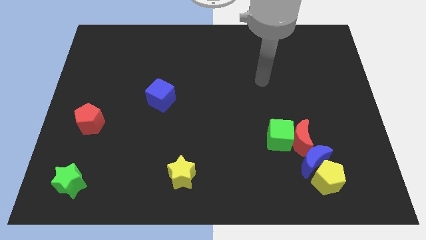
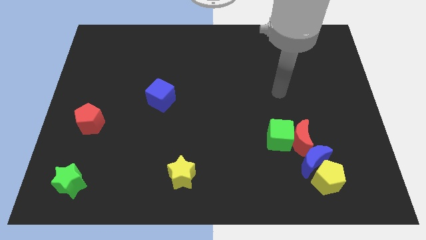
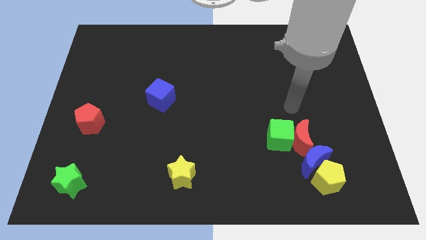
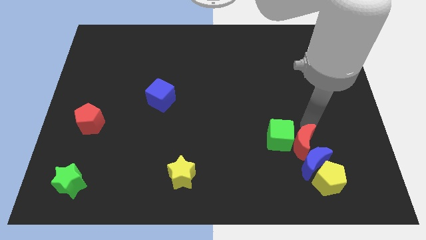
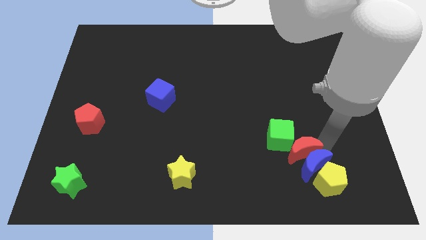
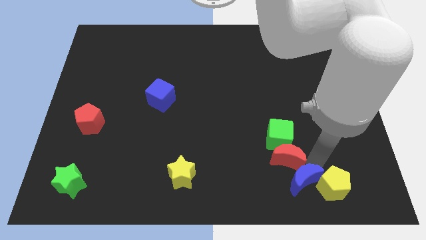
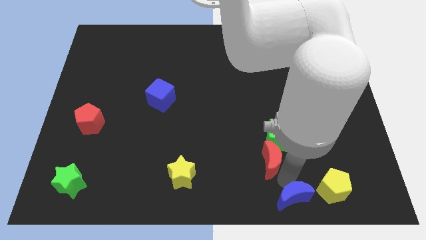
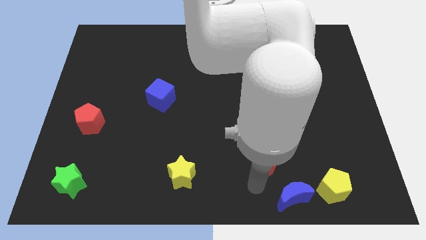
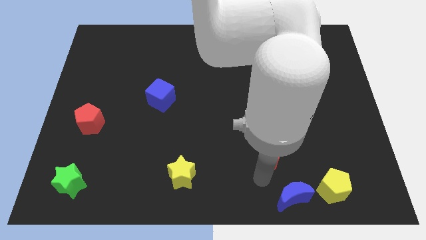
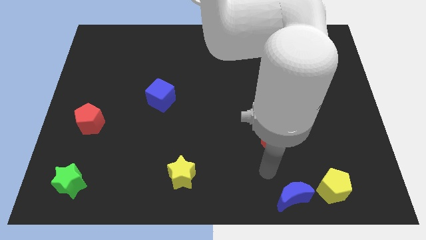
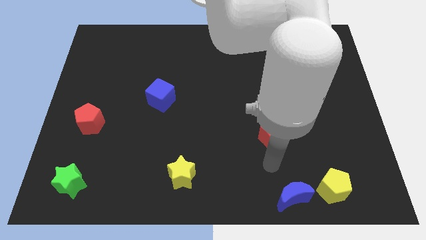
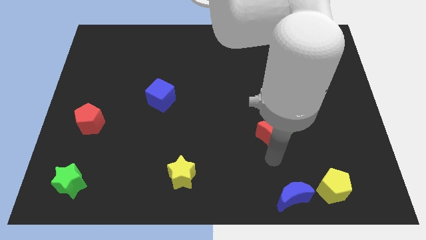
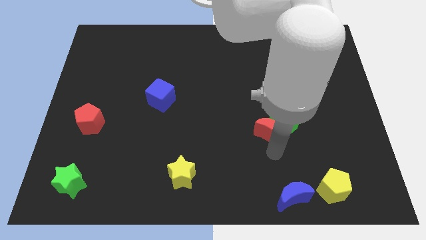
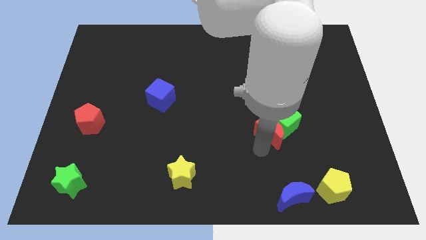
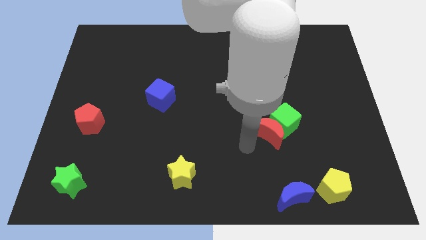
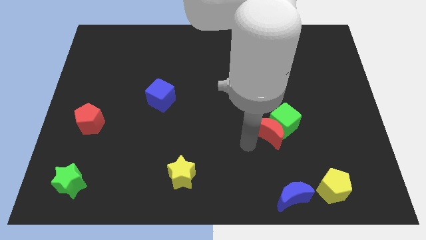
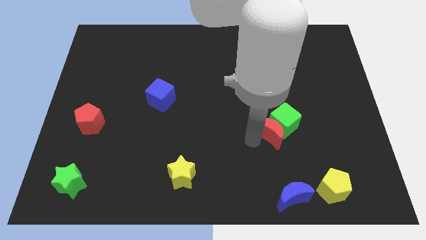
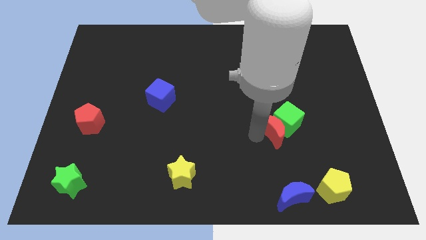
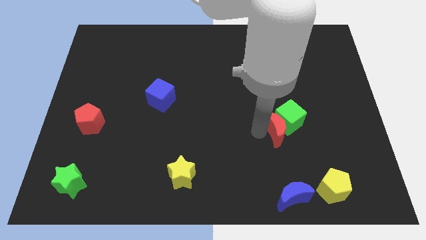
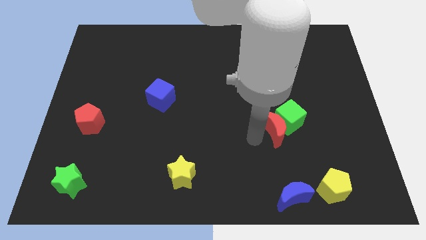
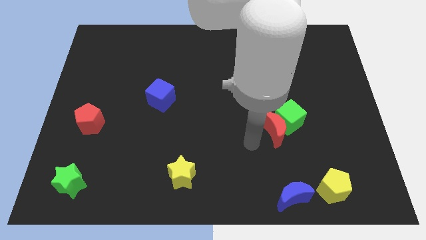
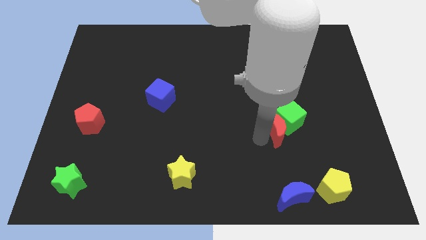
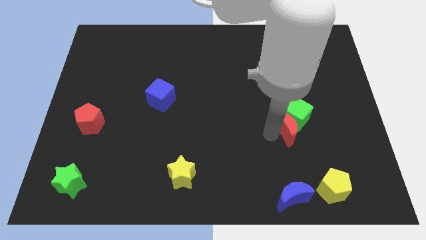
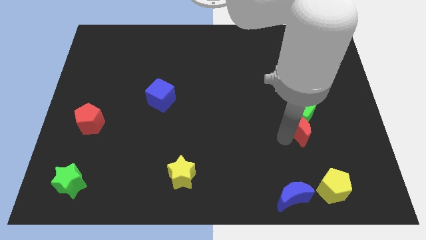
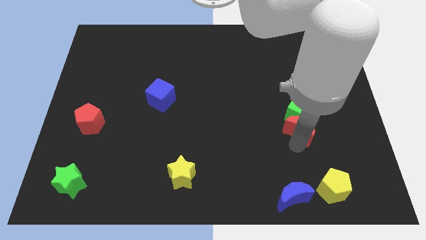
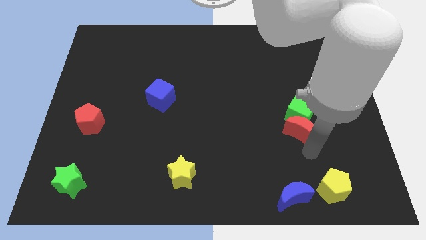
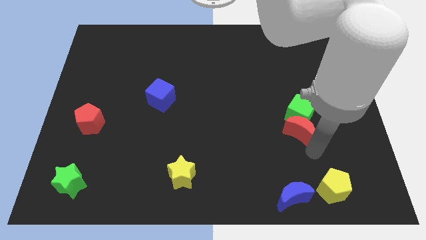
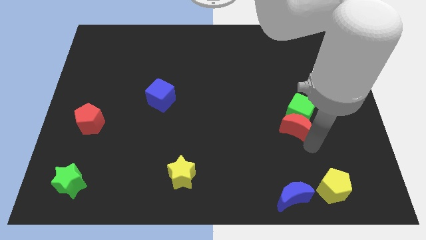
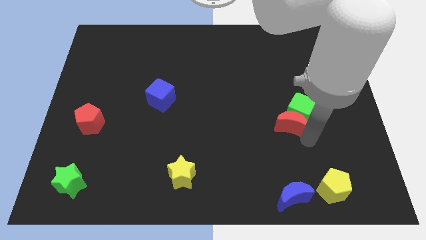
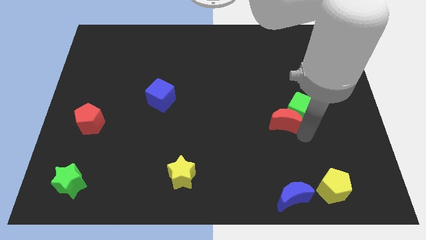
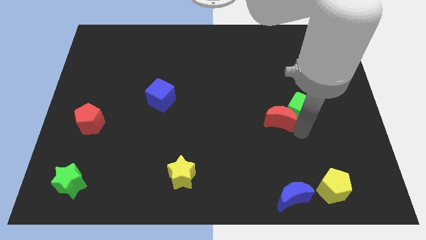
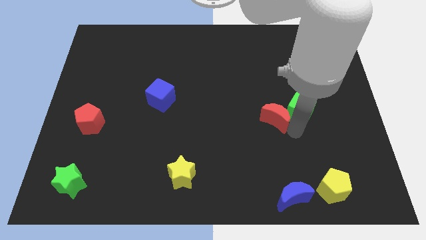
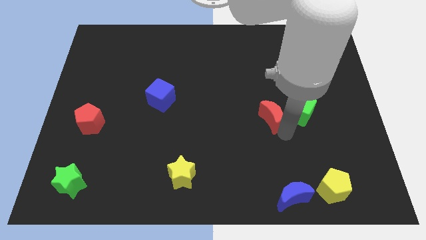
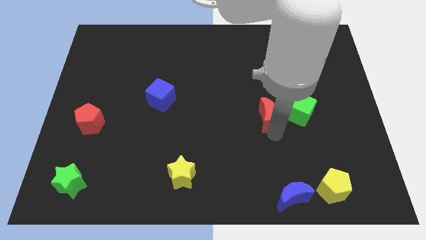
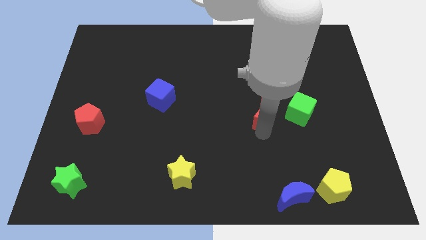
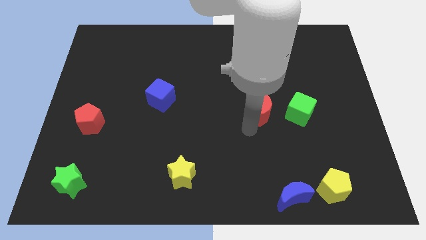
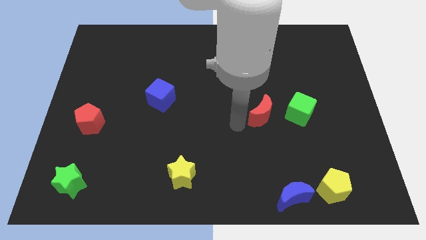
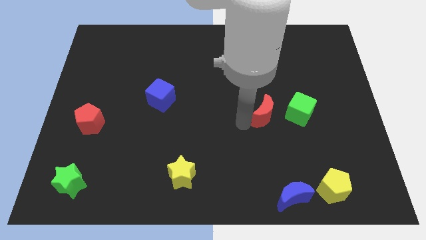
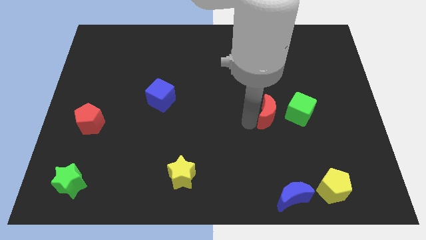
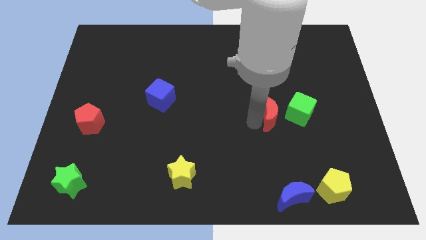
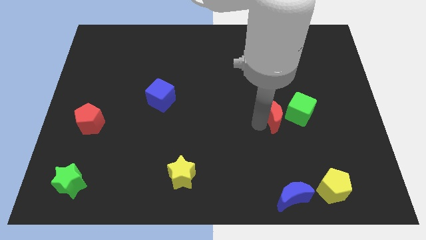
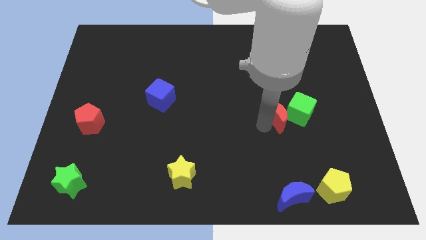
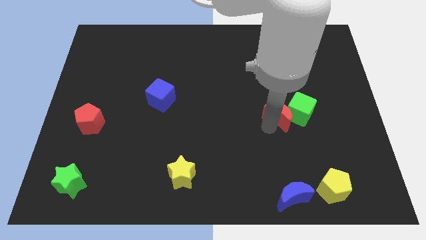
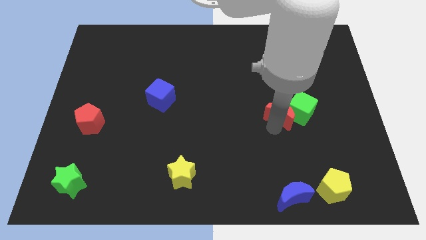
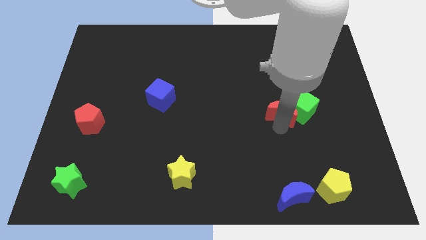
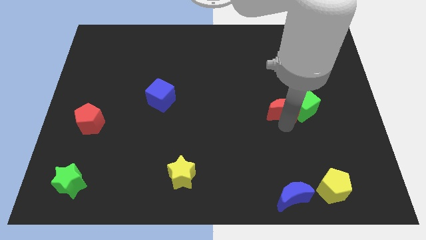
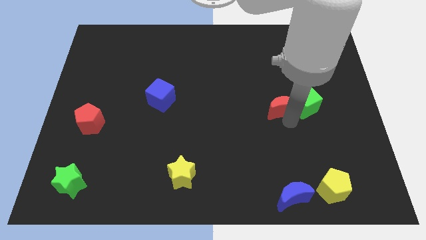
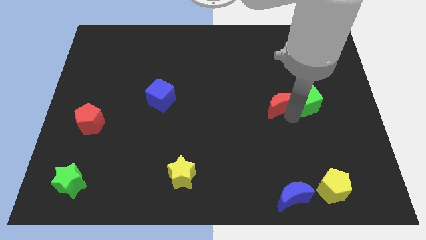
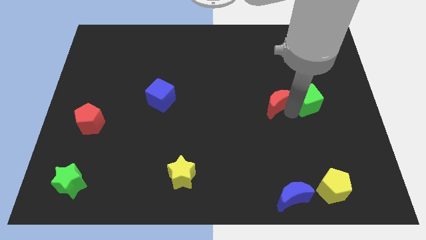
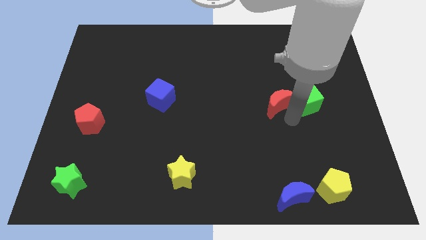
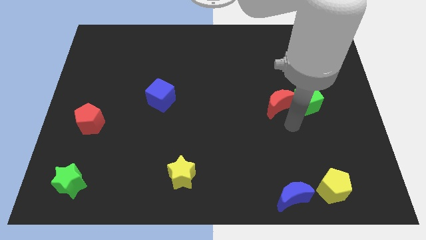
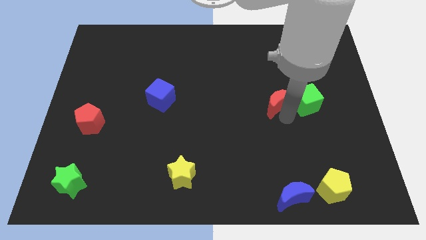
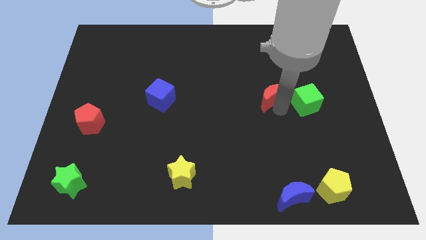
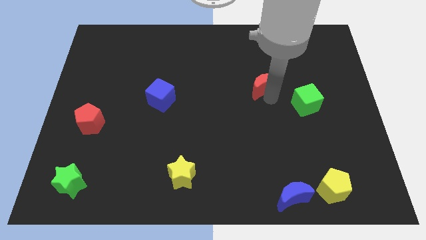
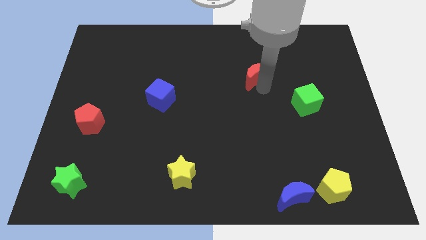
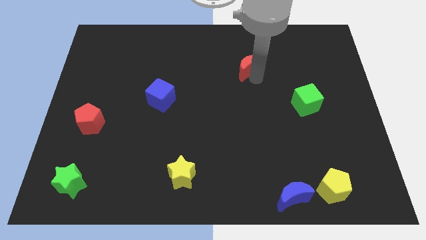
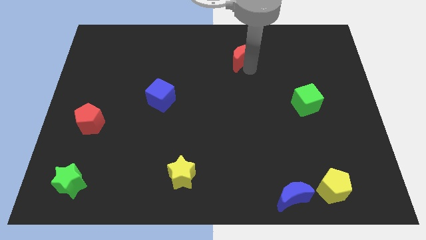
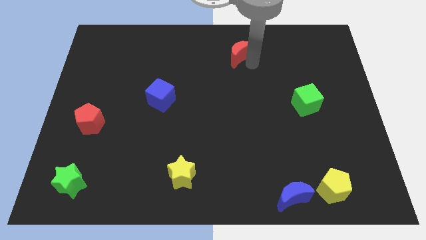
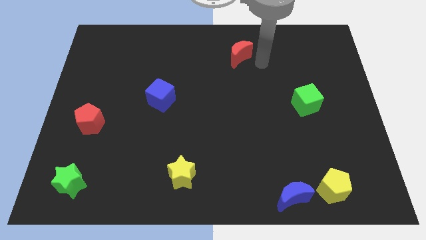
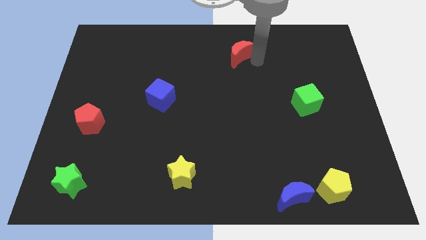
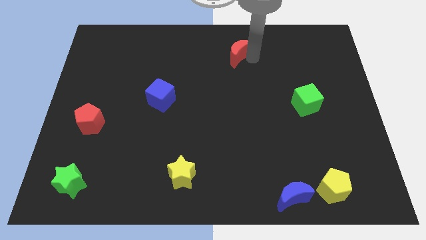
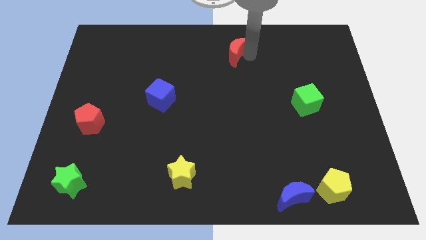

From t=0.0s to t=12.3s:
move the red moon to the top
